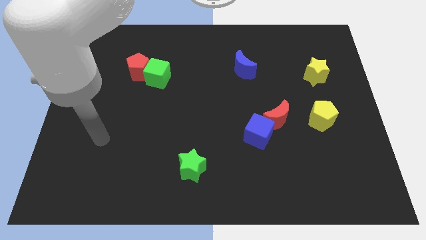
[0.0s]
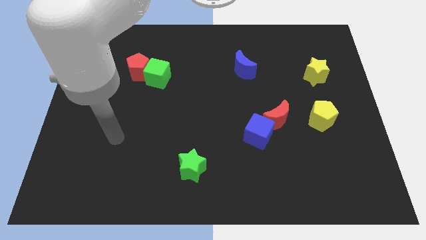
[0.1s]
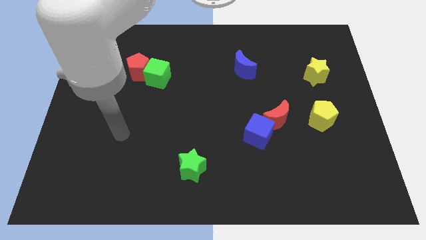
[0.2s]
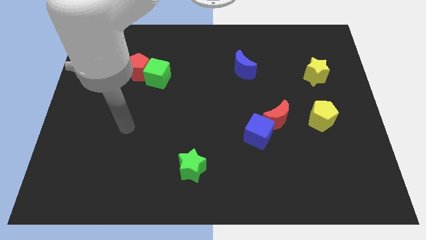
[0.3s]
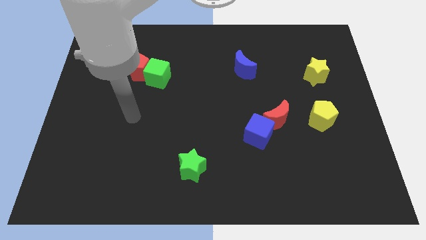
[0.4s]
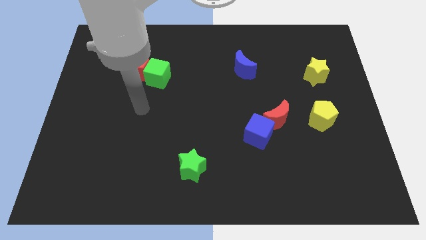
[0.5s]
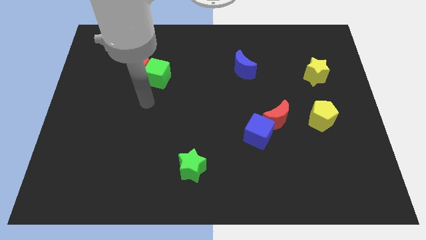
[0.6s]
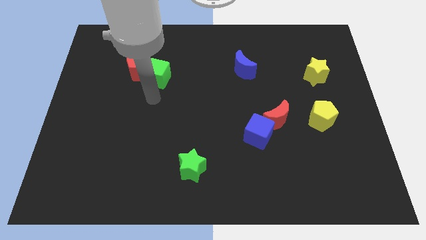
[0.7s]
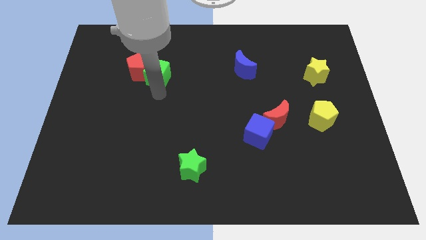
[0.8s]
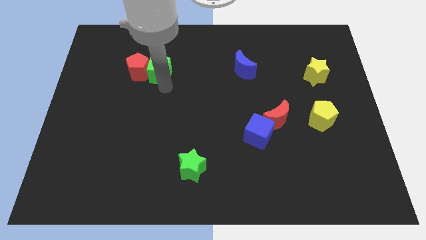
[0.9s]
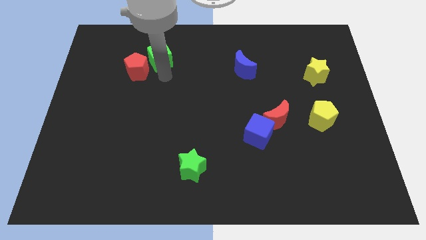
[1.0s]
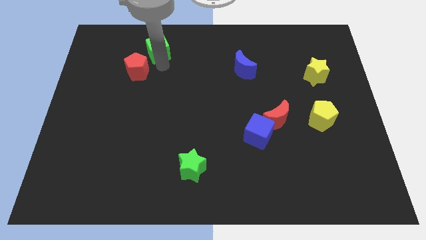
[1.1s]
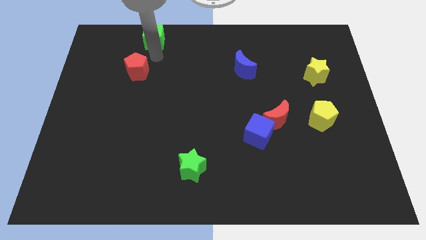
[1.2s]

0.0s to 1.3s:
separate the red pentagon from the green cube

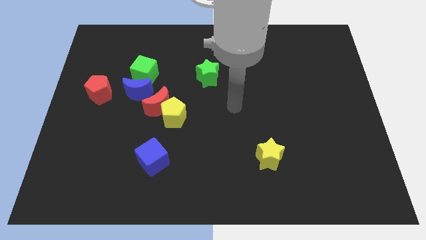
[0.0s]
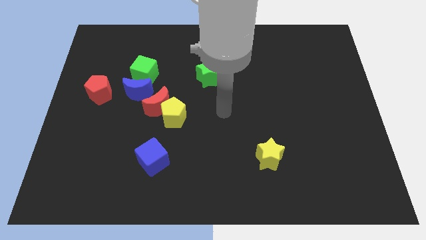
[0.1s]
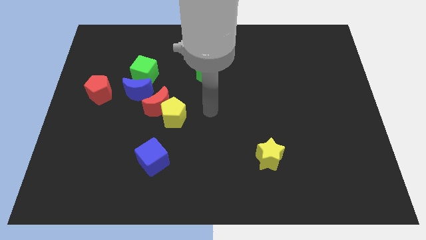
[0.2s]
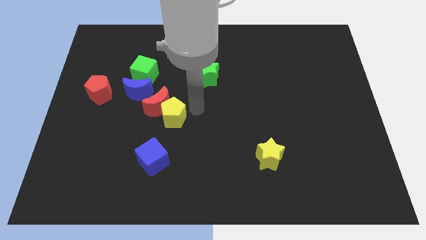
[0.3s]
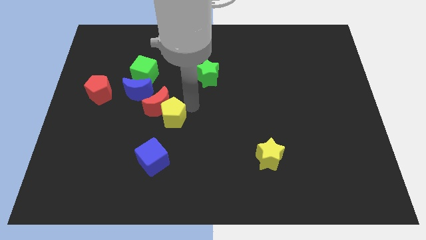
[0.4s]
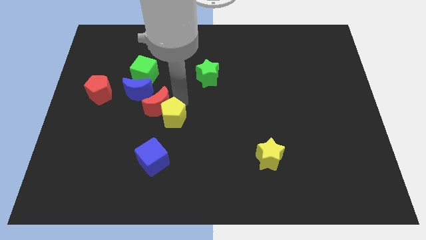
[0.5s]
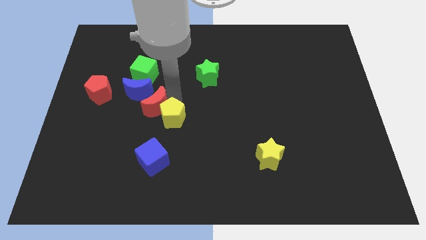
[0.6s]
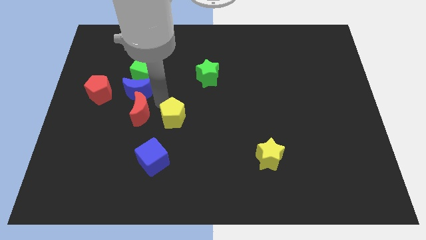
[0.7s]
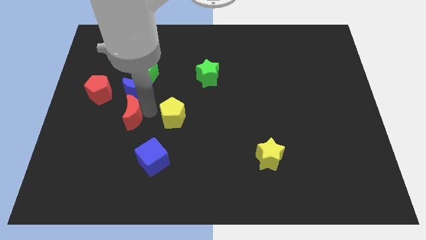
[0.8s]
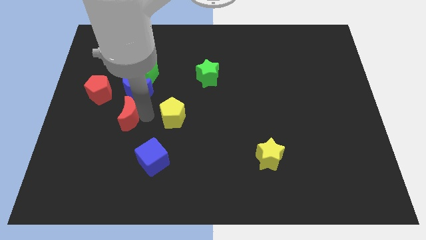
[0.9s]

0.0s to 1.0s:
separate the yellow pentagon from the red moon

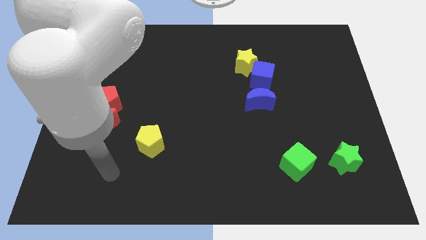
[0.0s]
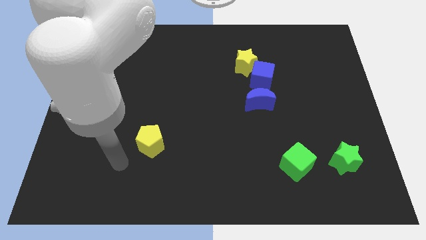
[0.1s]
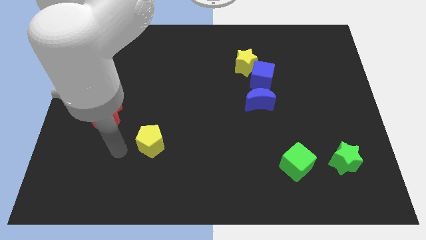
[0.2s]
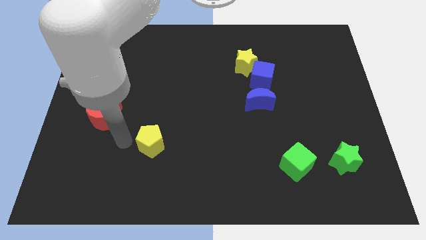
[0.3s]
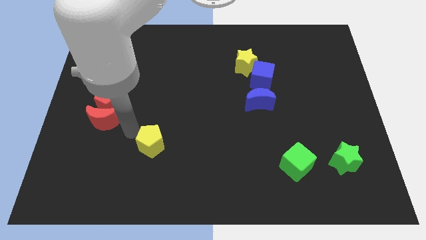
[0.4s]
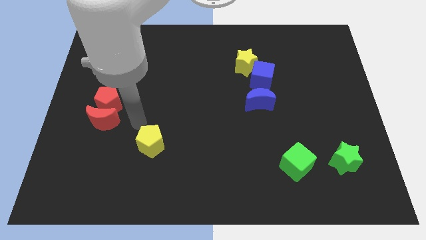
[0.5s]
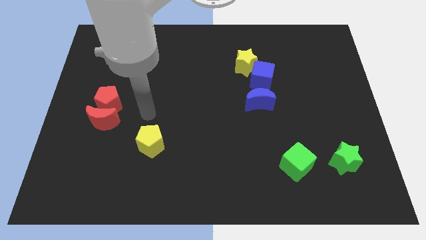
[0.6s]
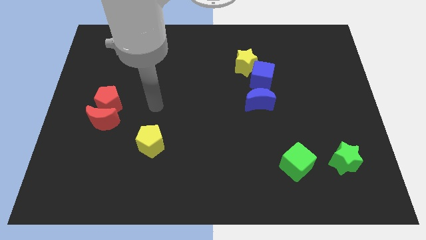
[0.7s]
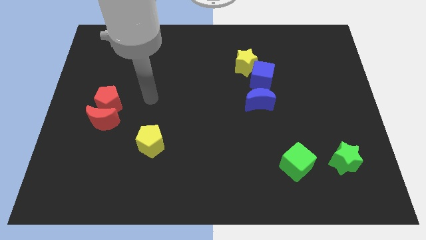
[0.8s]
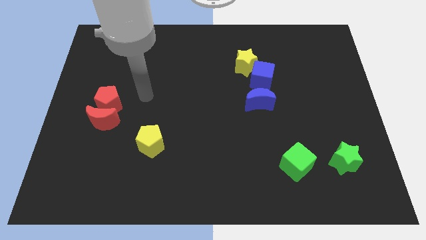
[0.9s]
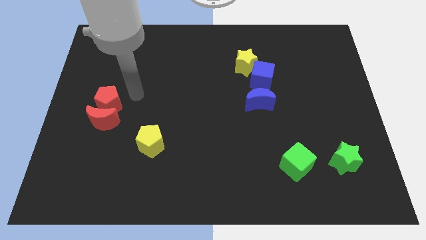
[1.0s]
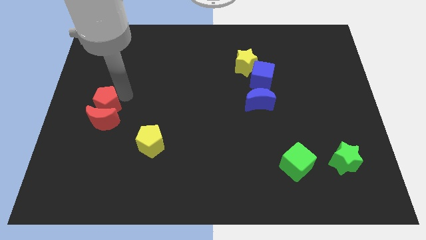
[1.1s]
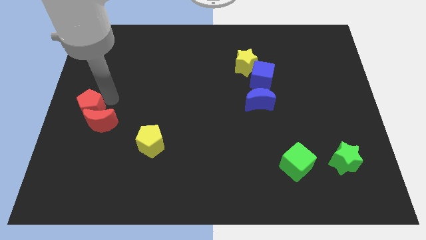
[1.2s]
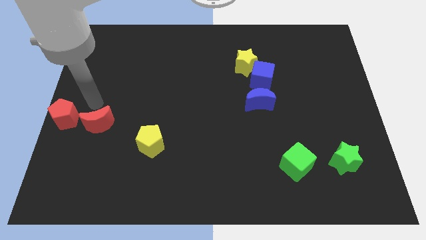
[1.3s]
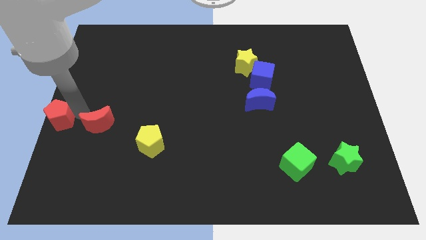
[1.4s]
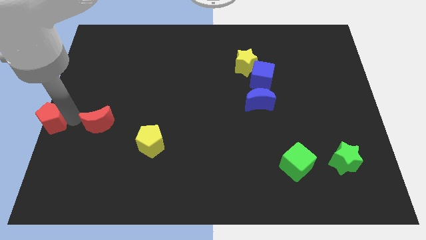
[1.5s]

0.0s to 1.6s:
separate the red moon from the red pentagon

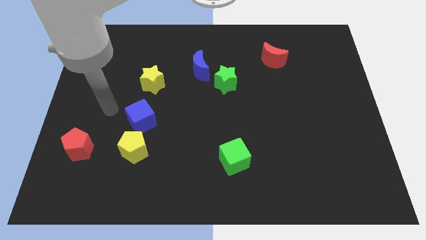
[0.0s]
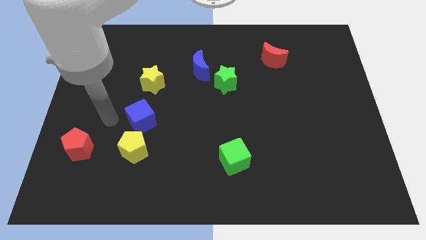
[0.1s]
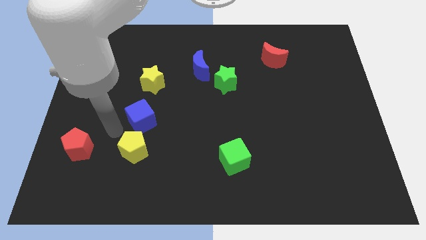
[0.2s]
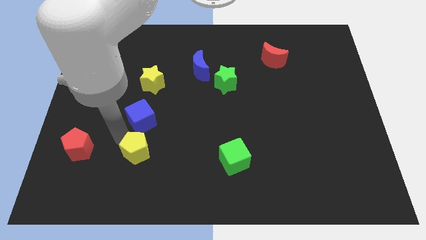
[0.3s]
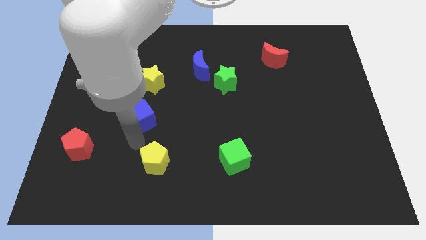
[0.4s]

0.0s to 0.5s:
pull the blue cube apart from the yellow pentagon

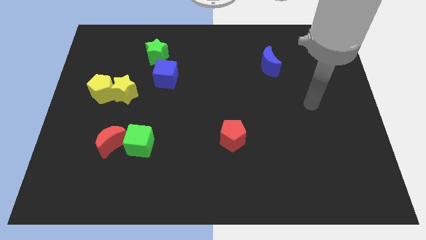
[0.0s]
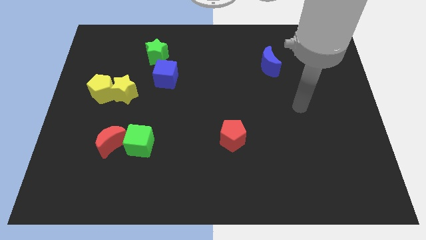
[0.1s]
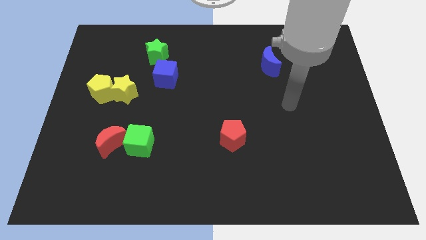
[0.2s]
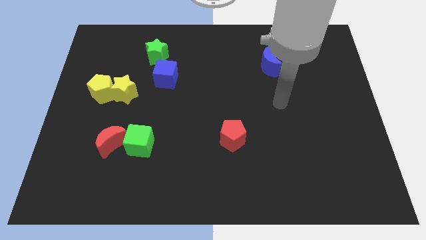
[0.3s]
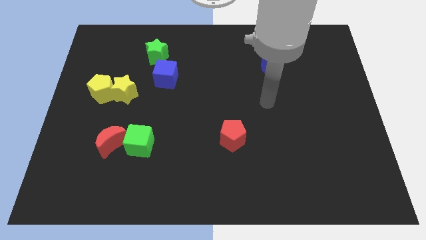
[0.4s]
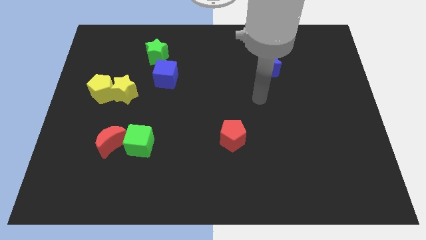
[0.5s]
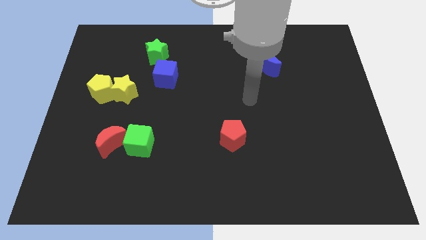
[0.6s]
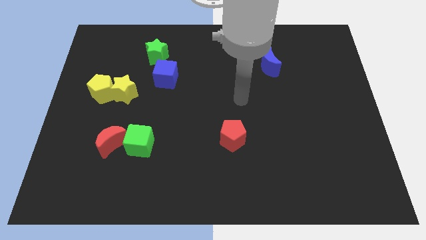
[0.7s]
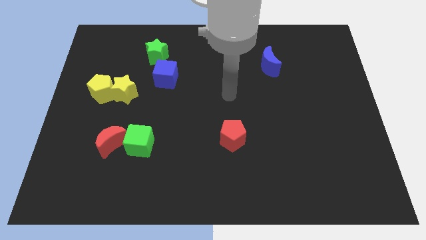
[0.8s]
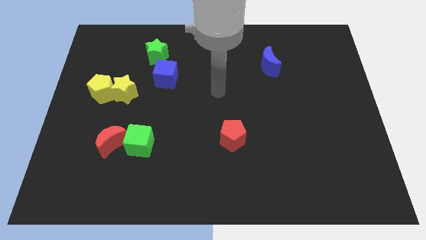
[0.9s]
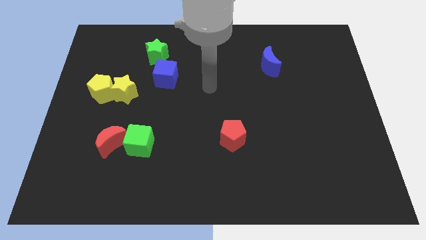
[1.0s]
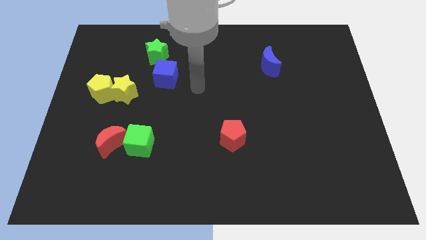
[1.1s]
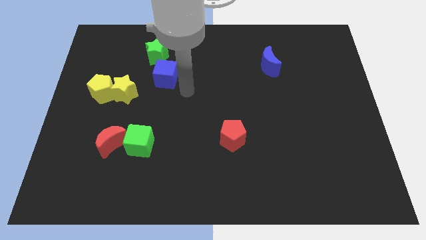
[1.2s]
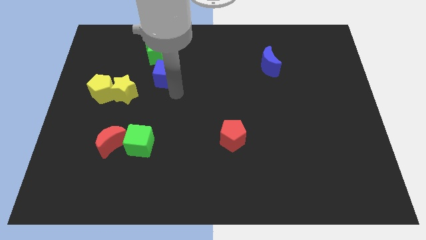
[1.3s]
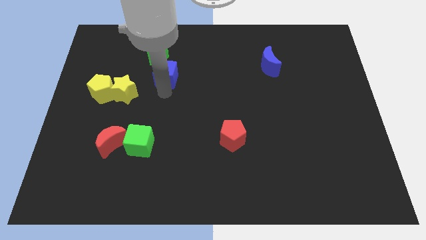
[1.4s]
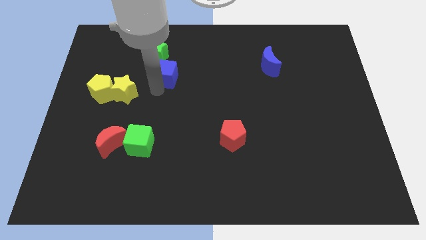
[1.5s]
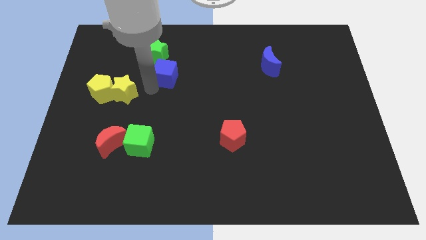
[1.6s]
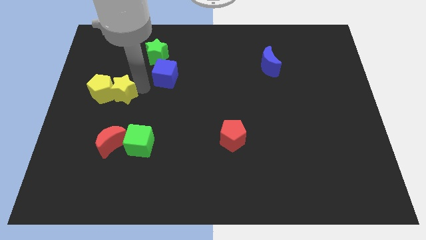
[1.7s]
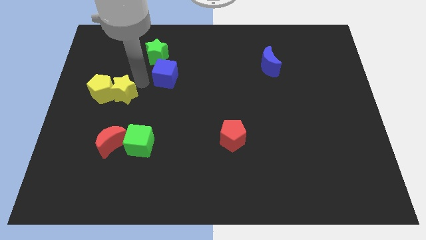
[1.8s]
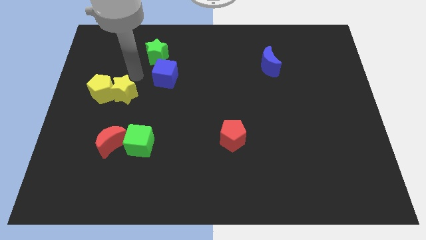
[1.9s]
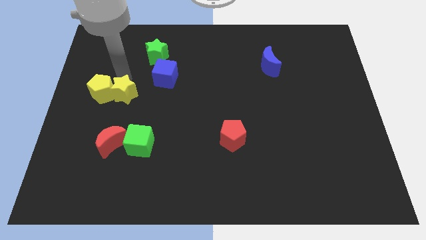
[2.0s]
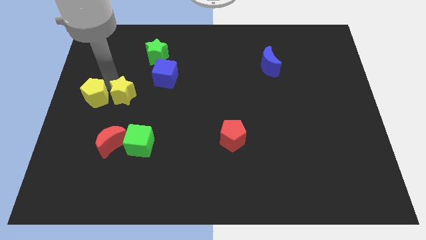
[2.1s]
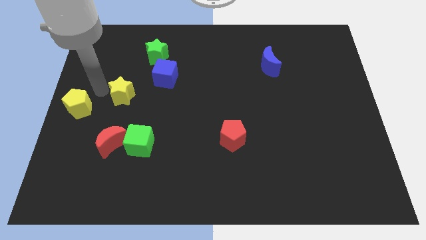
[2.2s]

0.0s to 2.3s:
separate the yellow star from the yellow pentagon

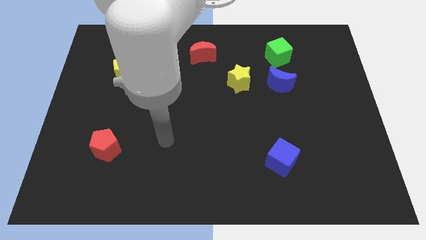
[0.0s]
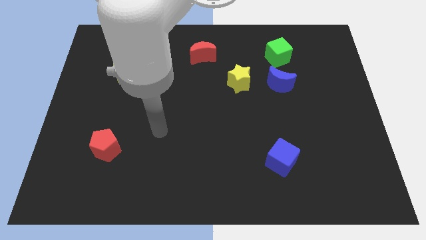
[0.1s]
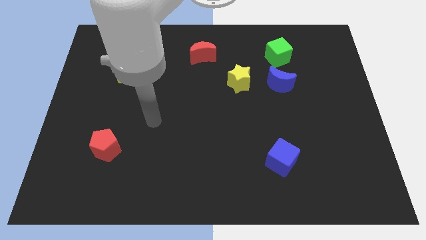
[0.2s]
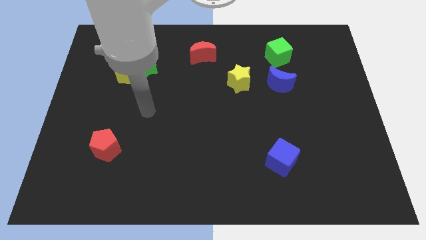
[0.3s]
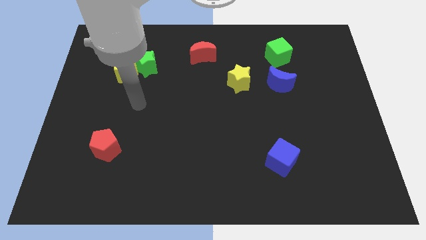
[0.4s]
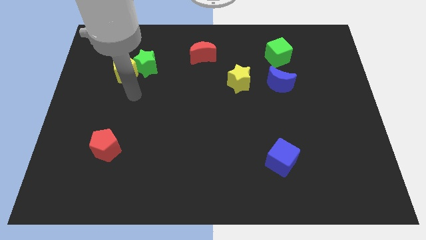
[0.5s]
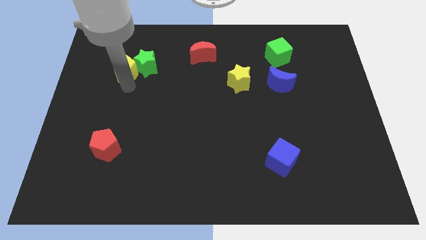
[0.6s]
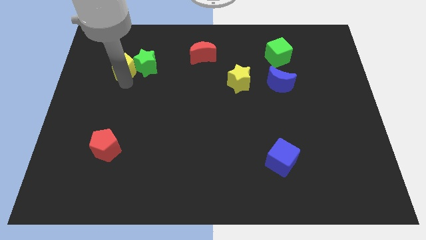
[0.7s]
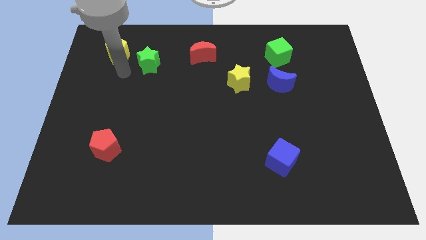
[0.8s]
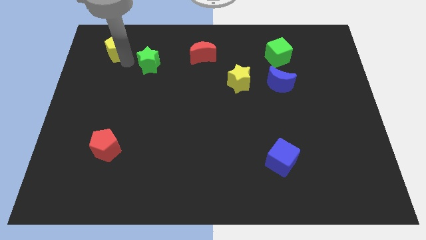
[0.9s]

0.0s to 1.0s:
move the green star away from the yellow pentagon

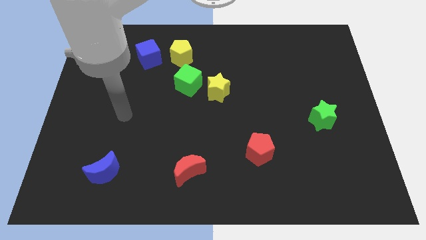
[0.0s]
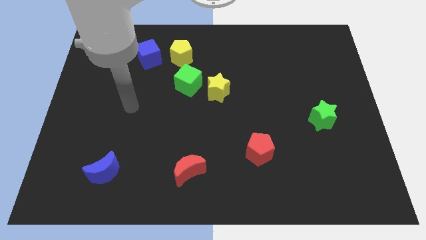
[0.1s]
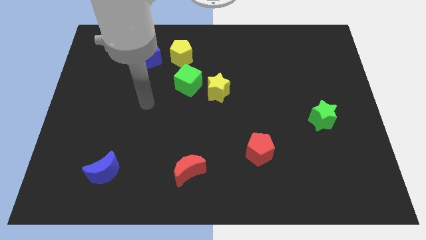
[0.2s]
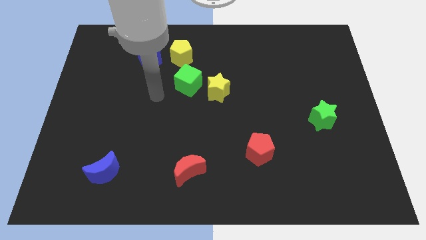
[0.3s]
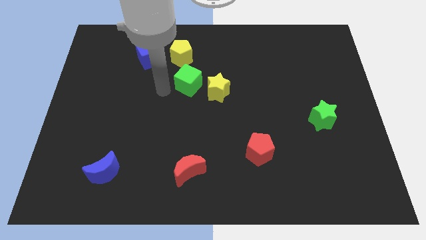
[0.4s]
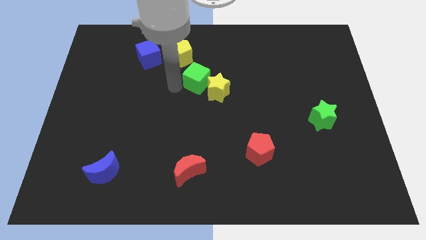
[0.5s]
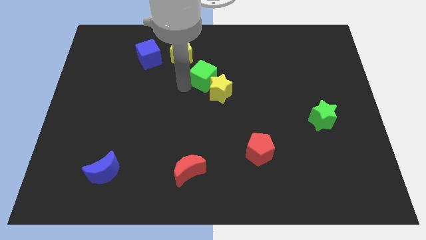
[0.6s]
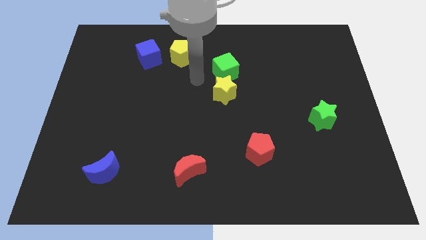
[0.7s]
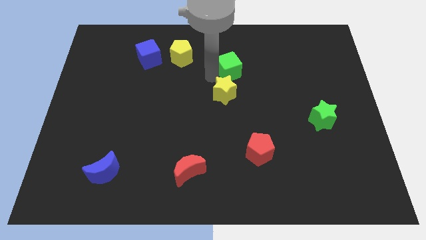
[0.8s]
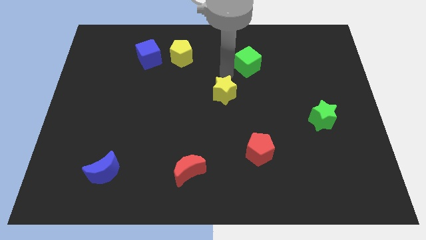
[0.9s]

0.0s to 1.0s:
pull the yellow star apart from the green cube

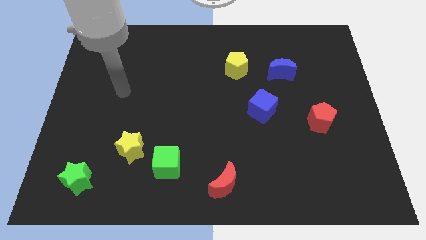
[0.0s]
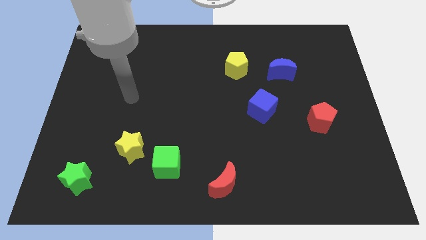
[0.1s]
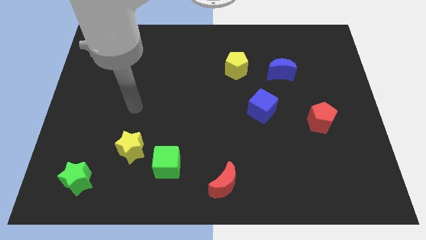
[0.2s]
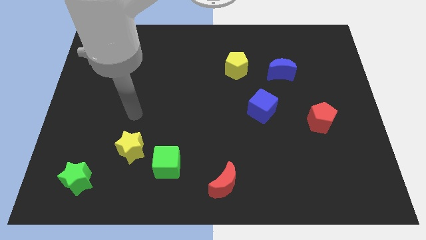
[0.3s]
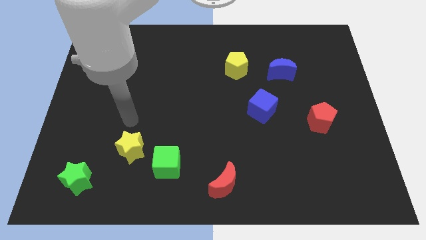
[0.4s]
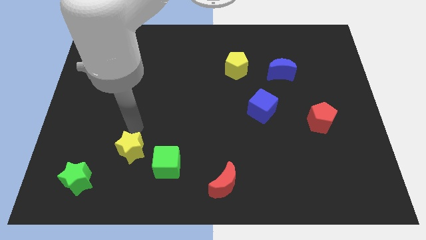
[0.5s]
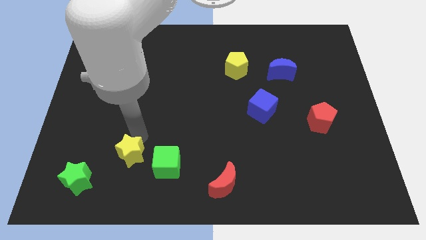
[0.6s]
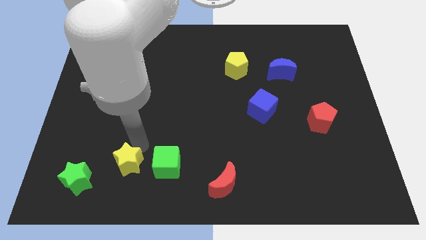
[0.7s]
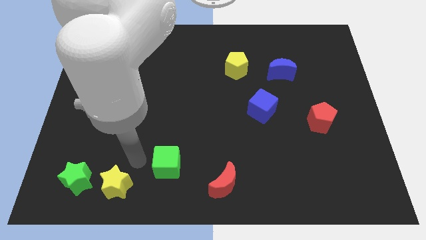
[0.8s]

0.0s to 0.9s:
pull the green cube apart from the yellow star
